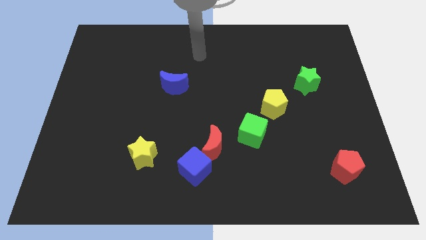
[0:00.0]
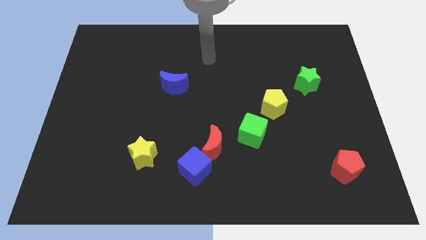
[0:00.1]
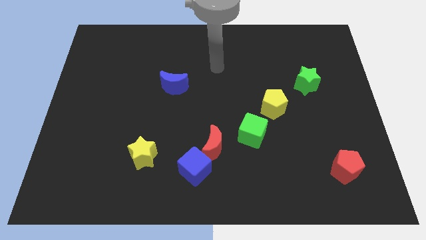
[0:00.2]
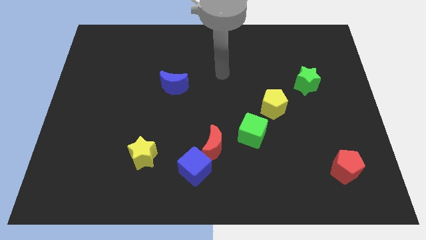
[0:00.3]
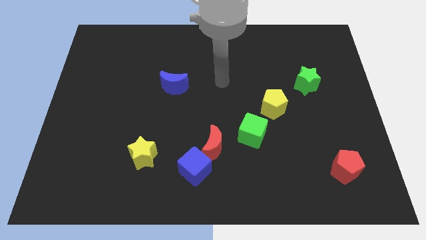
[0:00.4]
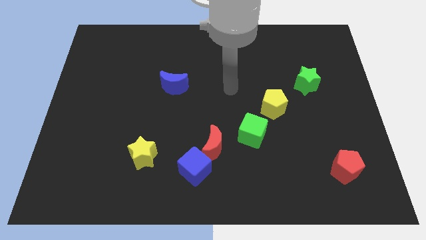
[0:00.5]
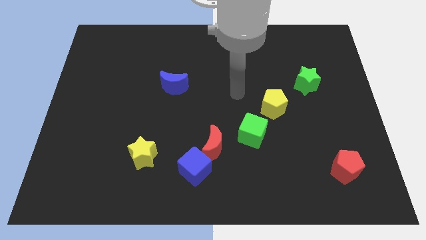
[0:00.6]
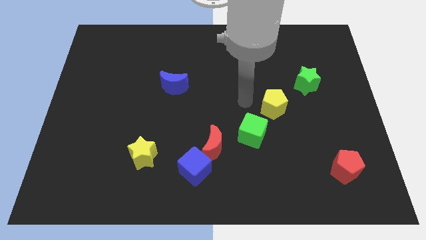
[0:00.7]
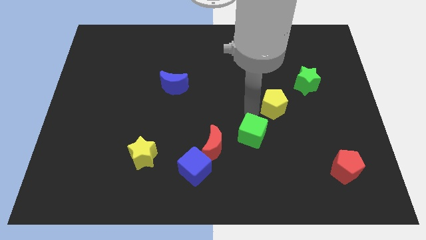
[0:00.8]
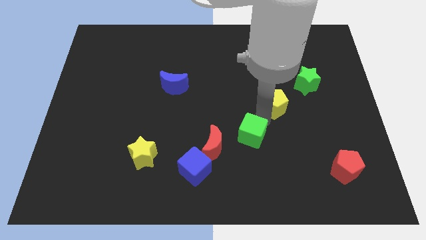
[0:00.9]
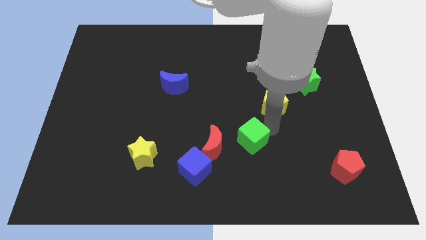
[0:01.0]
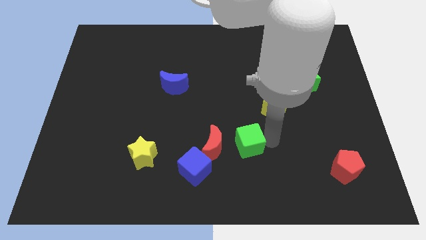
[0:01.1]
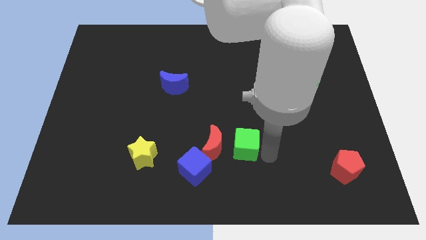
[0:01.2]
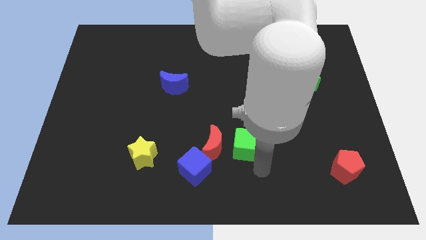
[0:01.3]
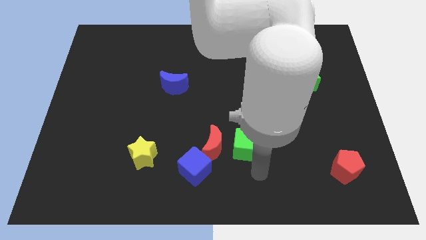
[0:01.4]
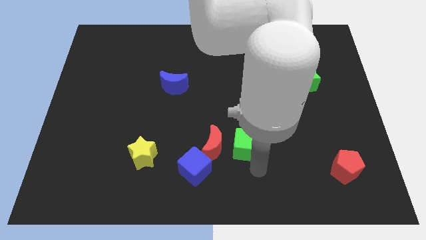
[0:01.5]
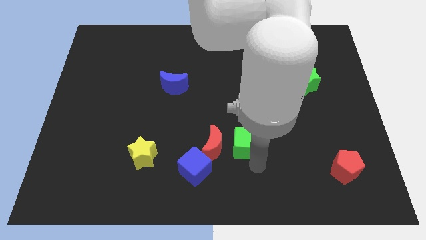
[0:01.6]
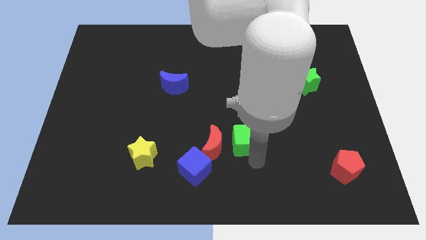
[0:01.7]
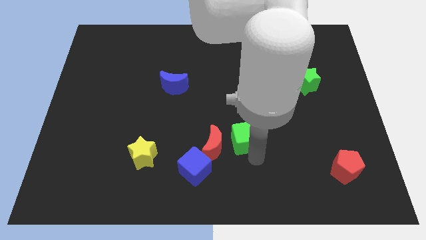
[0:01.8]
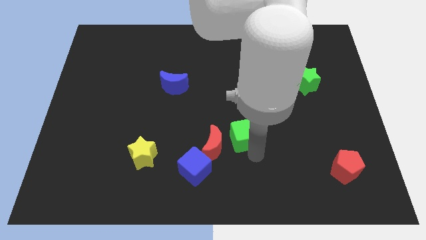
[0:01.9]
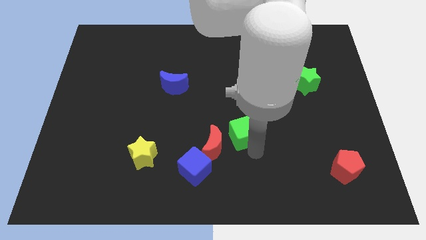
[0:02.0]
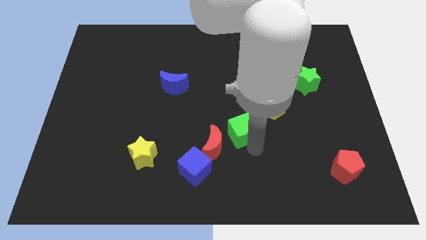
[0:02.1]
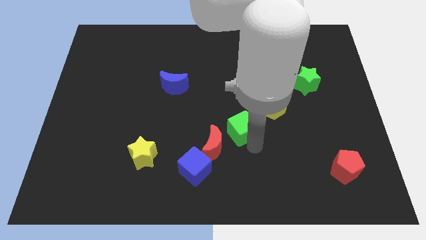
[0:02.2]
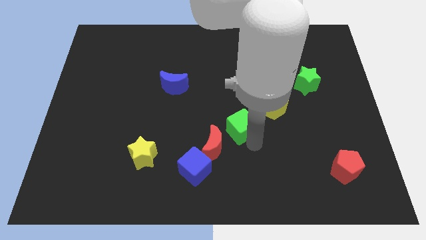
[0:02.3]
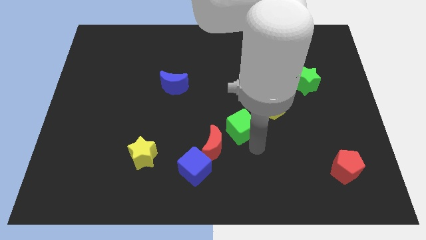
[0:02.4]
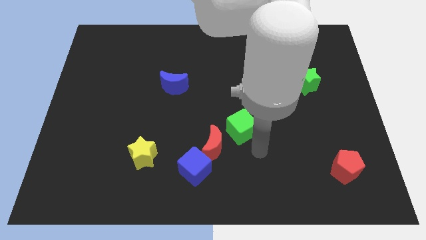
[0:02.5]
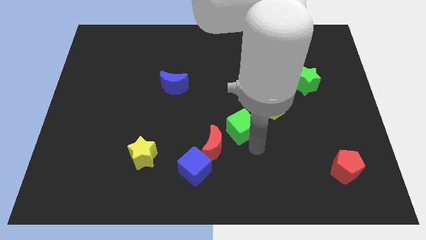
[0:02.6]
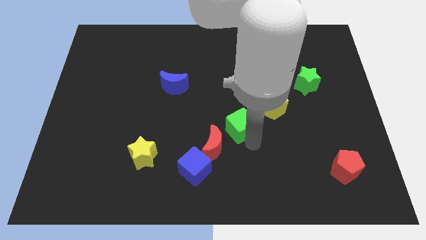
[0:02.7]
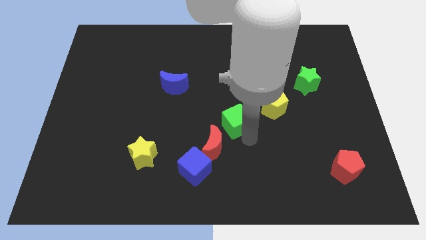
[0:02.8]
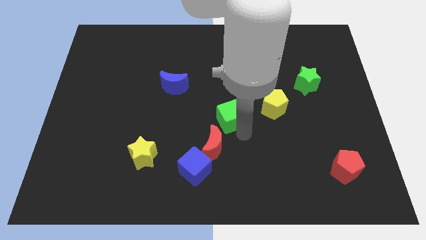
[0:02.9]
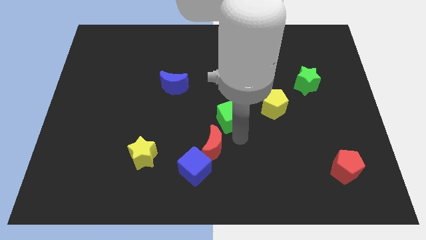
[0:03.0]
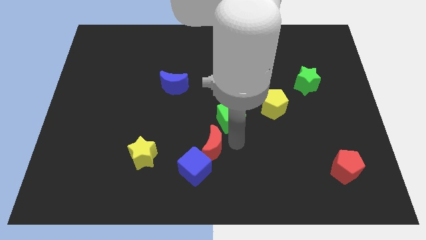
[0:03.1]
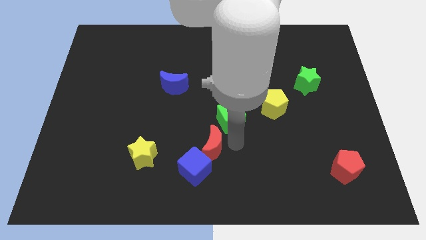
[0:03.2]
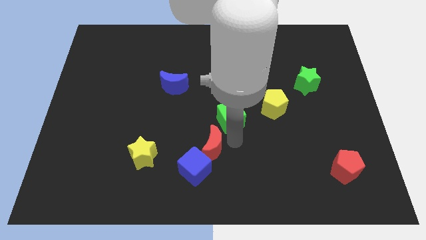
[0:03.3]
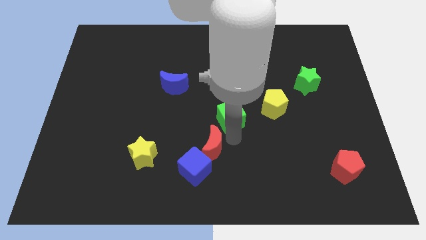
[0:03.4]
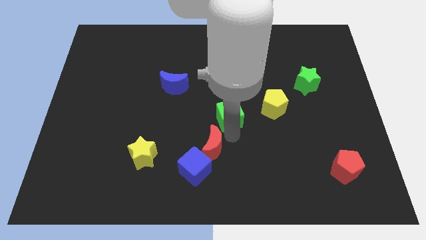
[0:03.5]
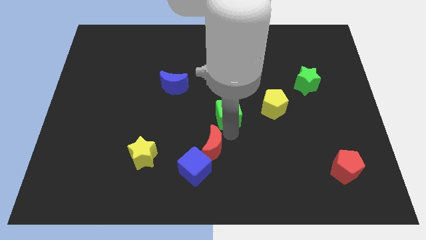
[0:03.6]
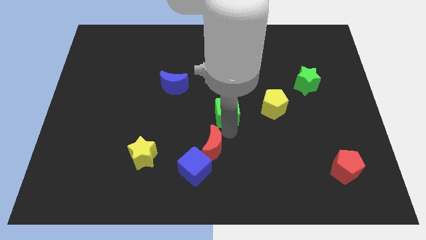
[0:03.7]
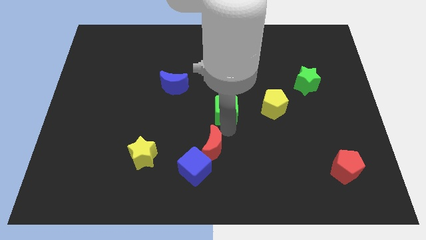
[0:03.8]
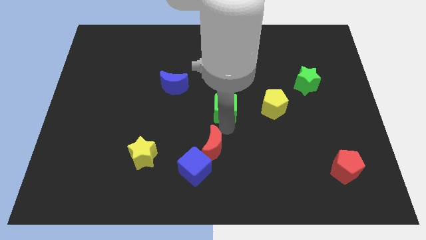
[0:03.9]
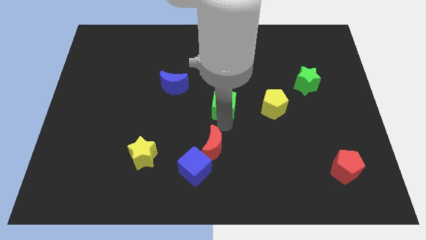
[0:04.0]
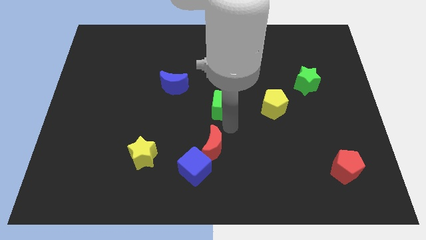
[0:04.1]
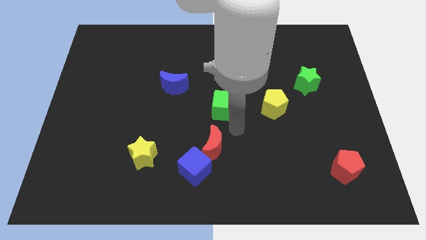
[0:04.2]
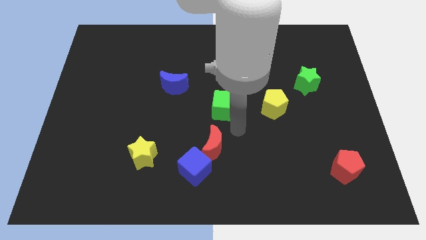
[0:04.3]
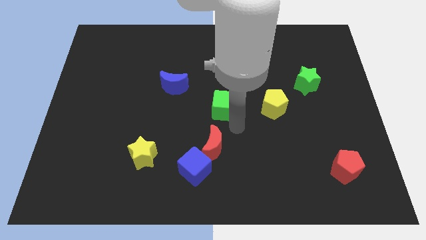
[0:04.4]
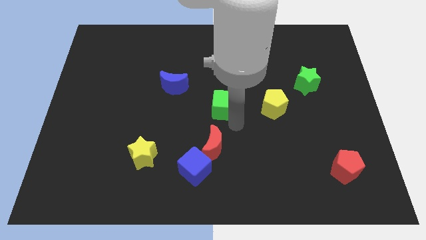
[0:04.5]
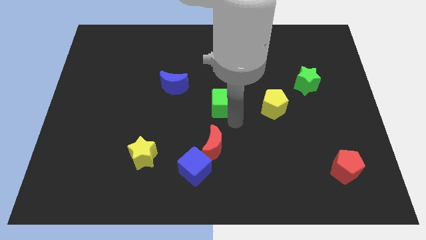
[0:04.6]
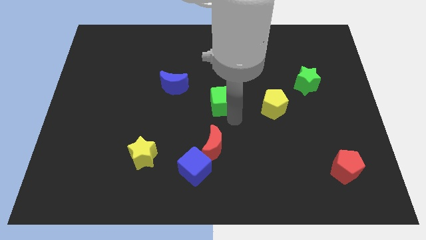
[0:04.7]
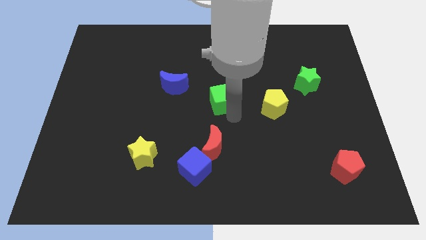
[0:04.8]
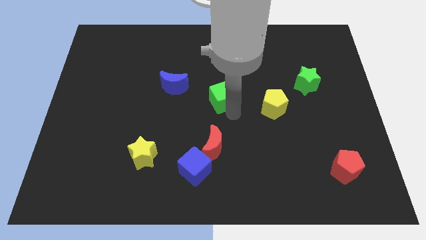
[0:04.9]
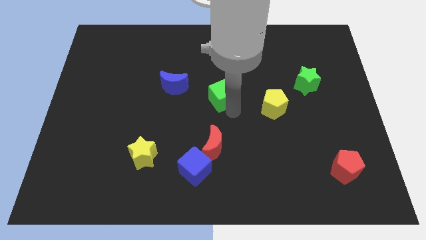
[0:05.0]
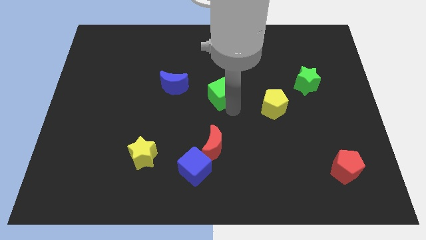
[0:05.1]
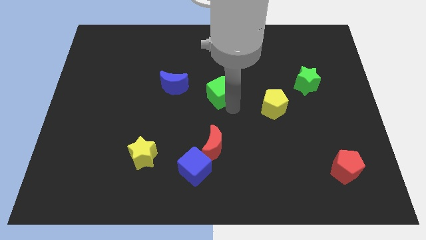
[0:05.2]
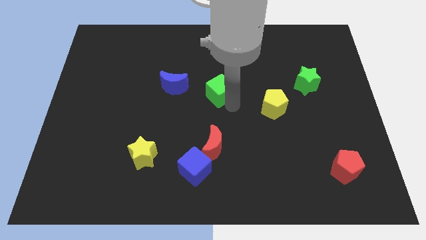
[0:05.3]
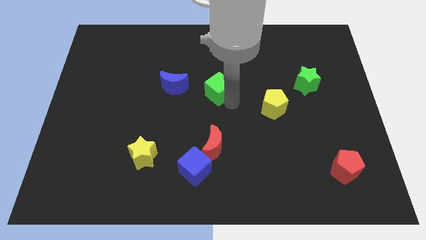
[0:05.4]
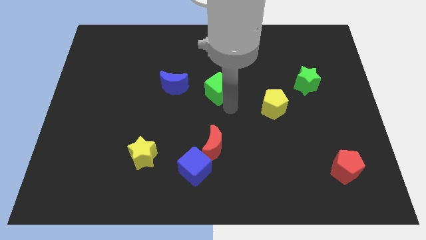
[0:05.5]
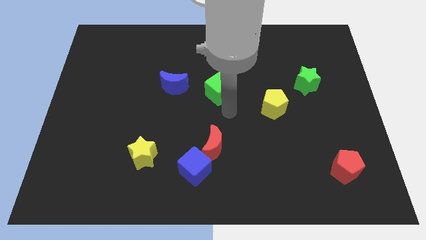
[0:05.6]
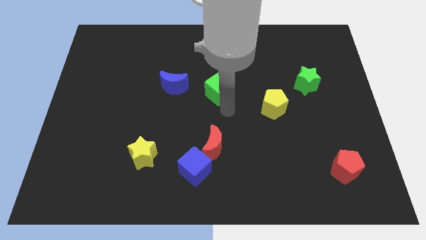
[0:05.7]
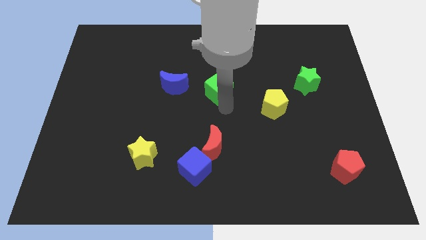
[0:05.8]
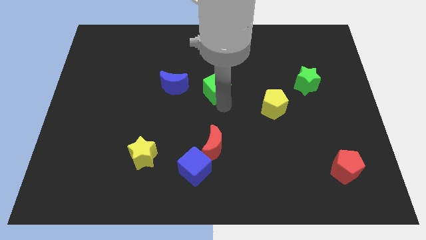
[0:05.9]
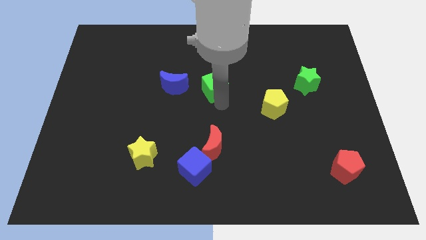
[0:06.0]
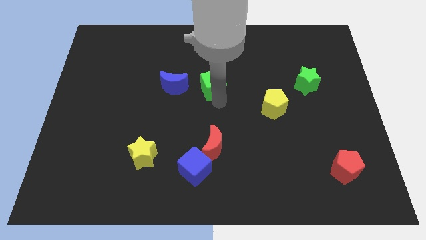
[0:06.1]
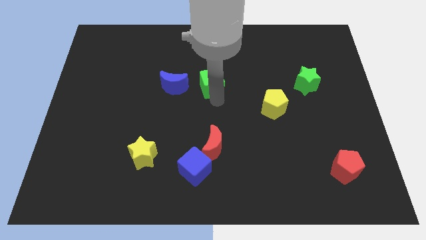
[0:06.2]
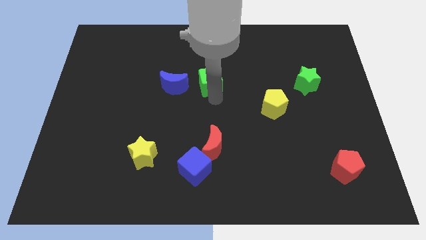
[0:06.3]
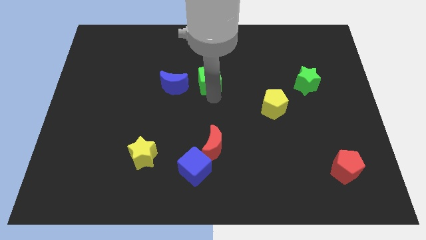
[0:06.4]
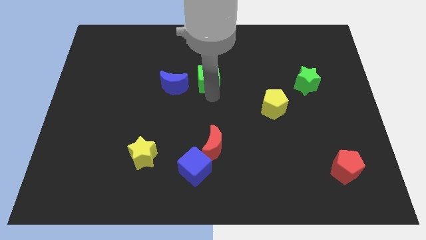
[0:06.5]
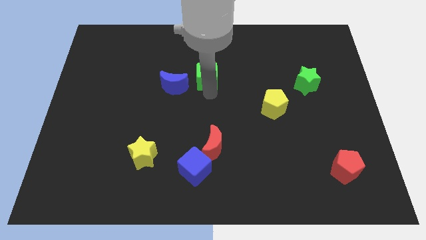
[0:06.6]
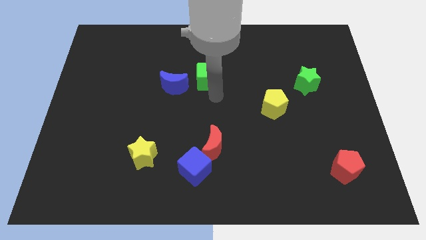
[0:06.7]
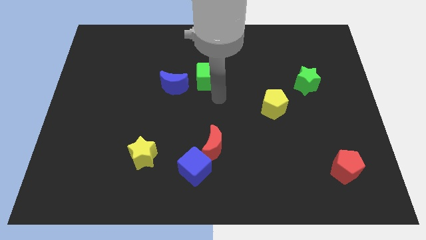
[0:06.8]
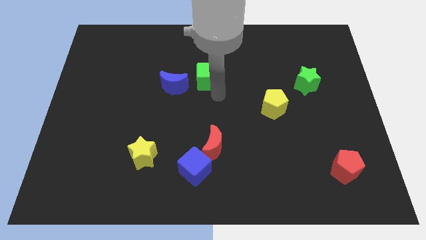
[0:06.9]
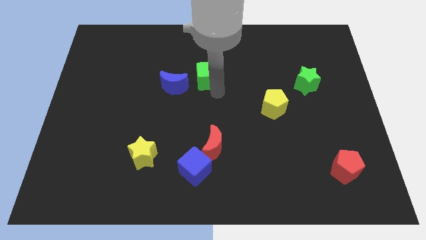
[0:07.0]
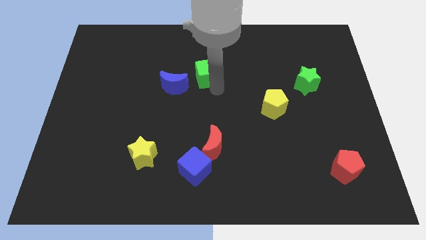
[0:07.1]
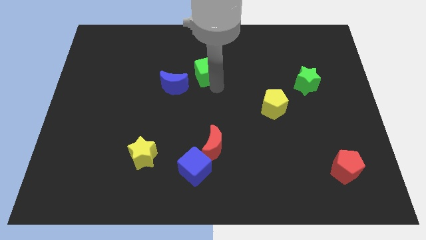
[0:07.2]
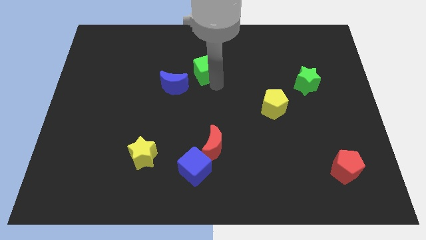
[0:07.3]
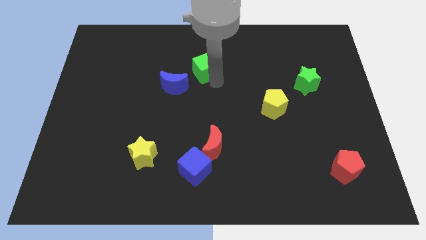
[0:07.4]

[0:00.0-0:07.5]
push the green cube diagonally upwards and left
